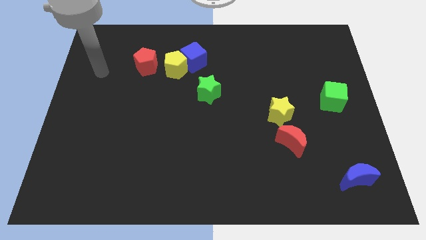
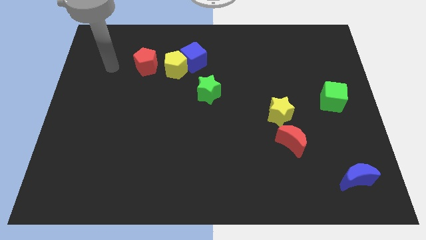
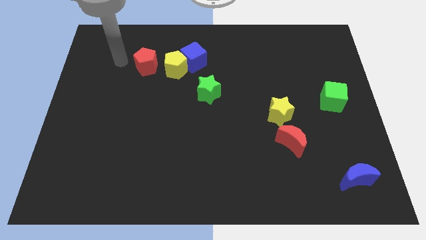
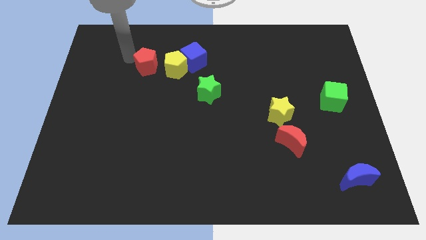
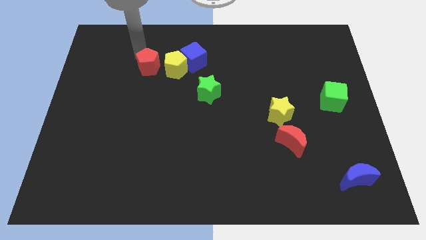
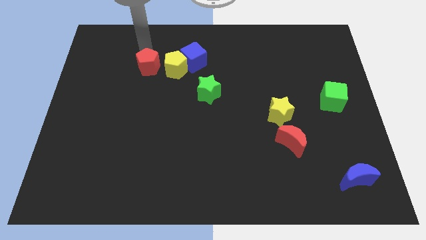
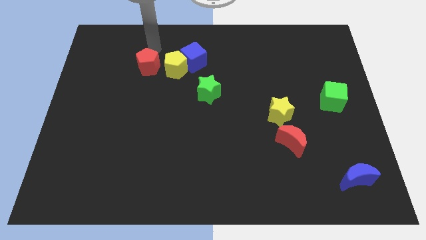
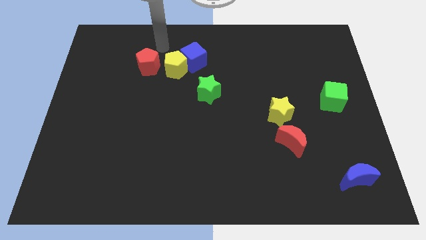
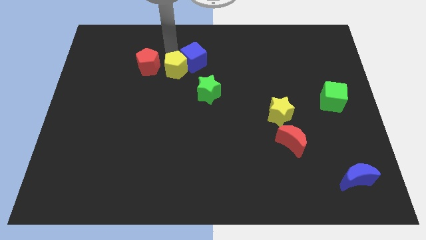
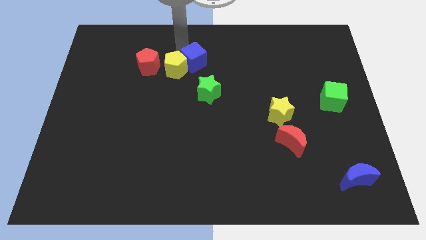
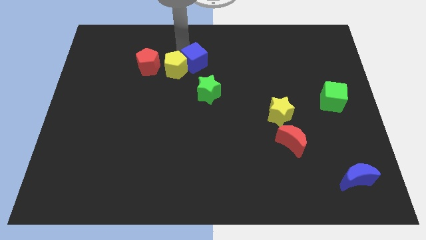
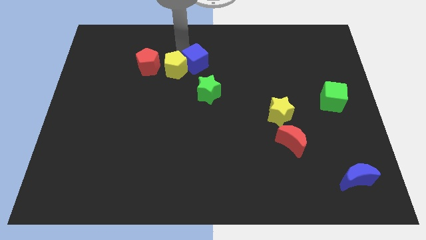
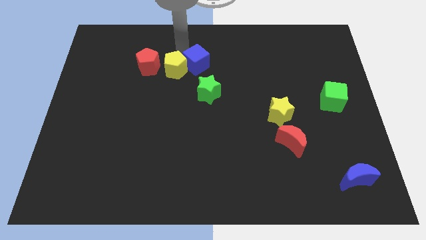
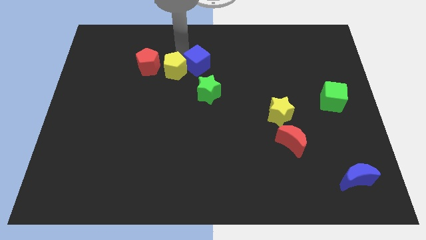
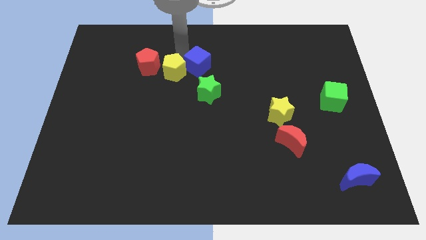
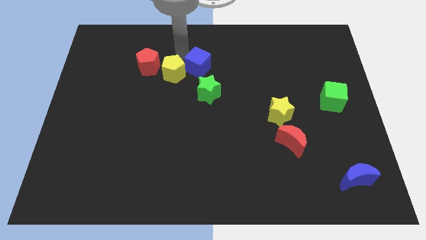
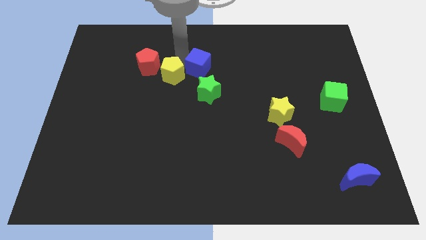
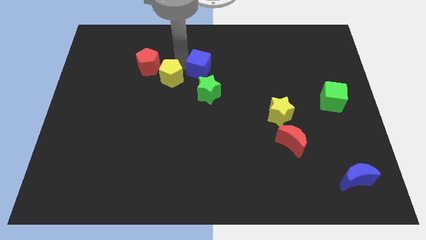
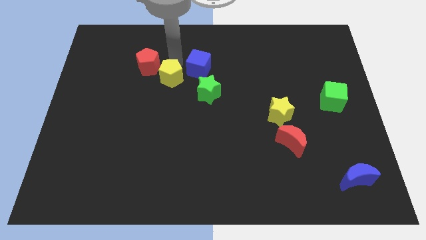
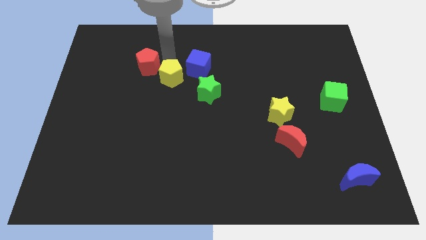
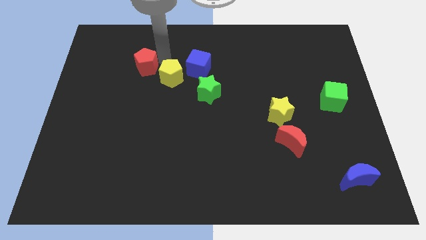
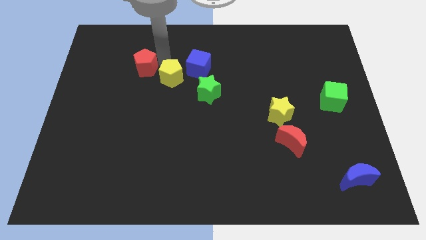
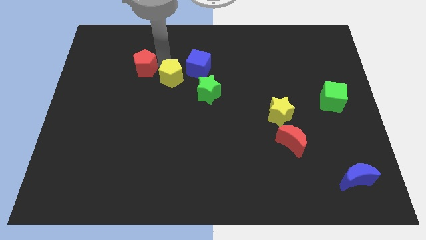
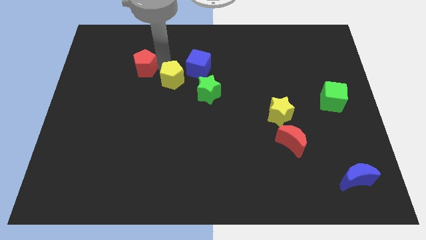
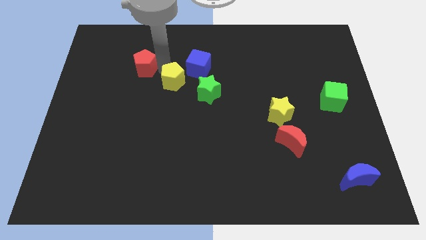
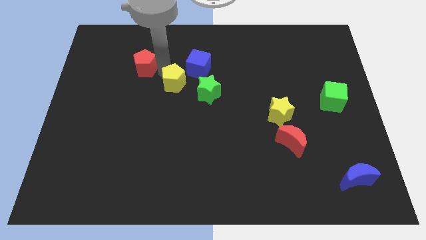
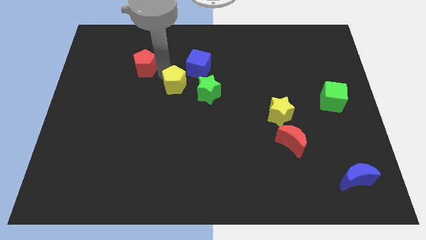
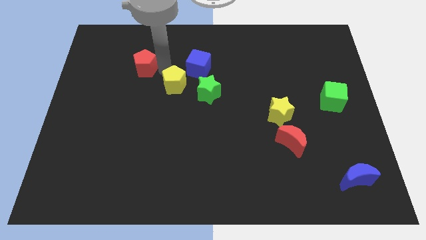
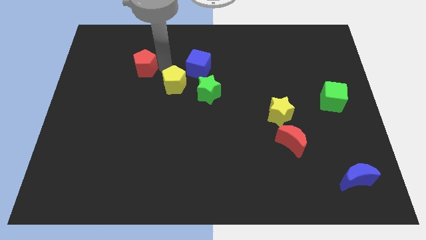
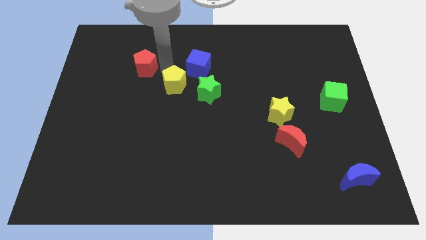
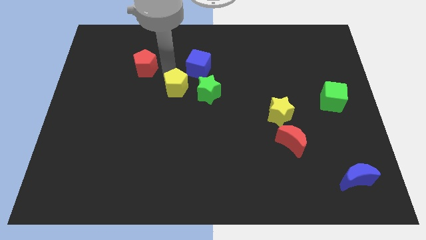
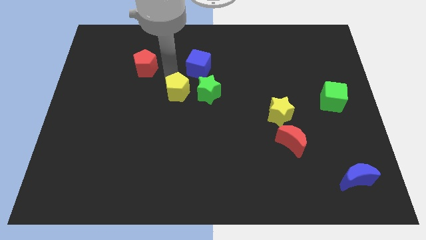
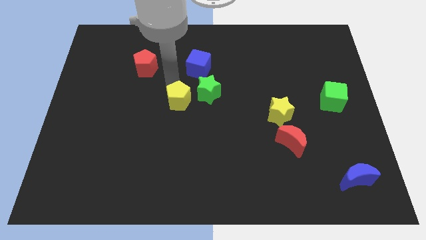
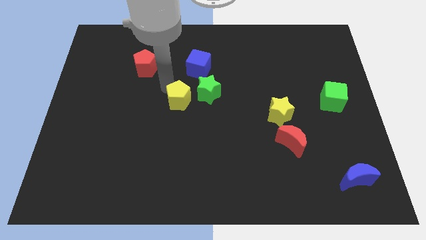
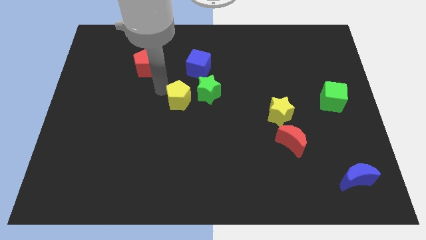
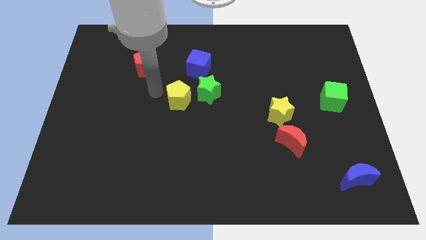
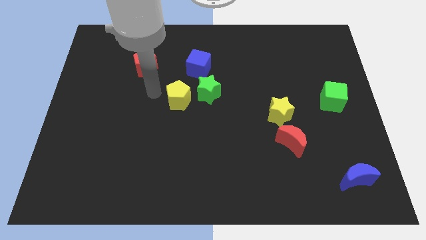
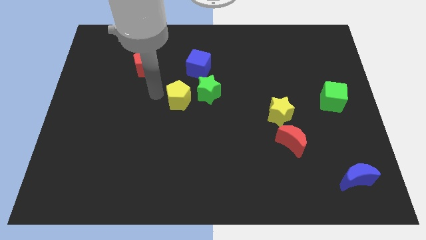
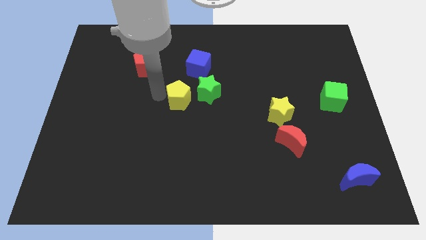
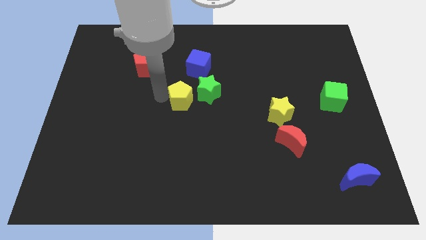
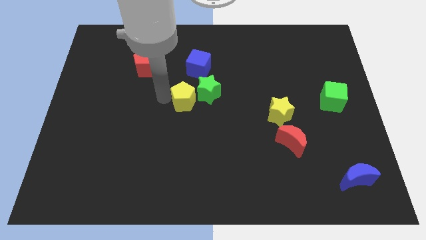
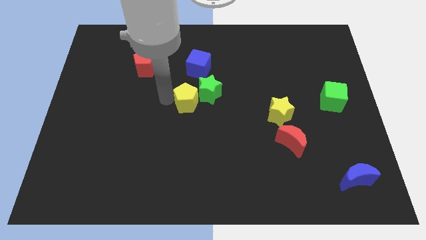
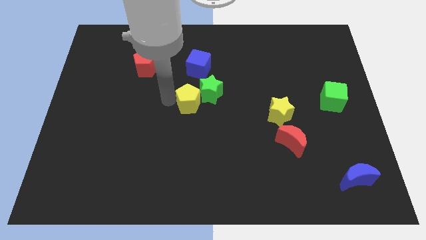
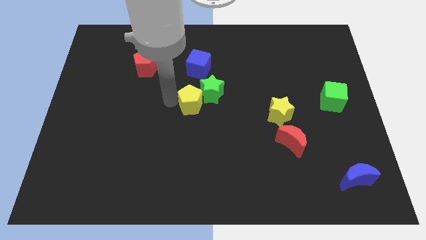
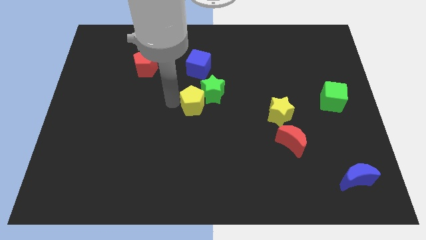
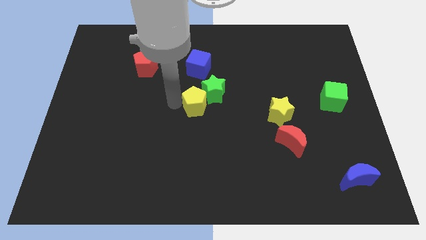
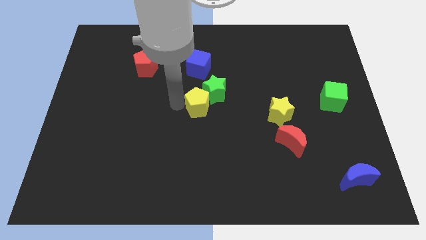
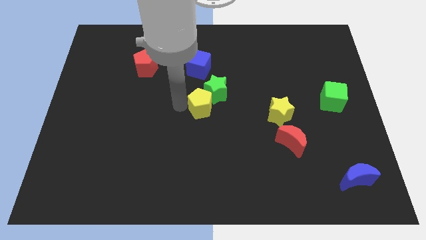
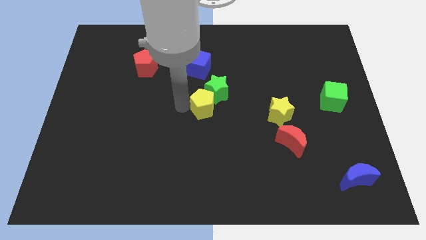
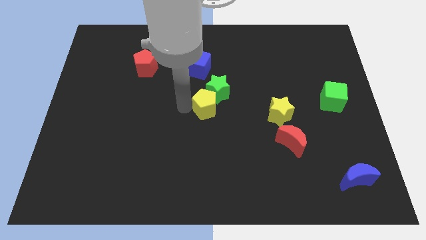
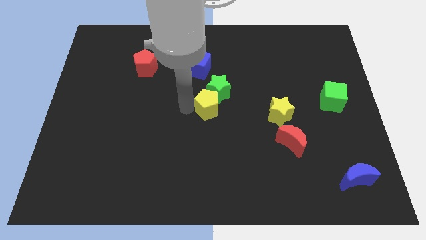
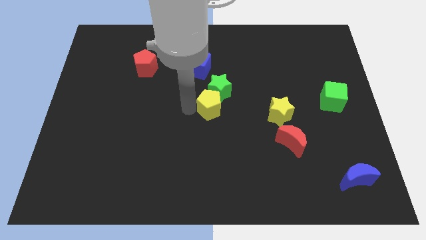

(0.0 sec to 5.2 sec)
push the yellow pentagon to the left of the yellow star
